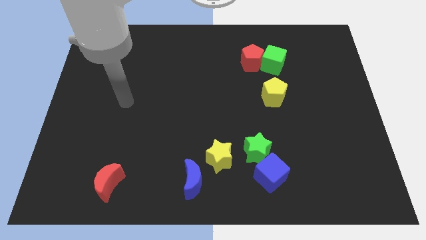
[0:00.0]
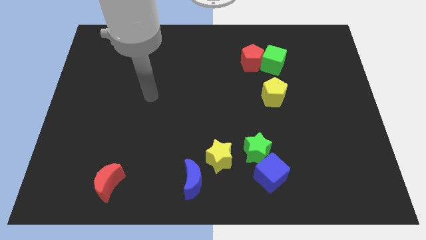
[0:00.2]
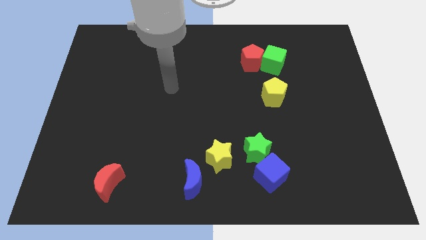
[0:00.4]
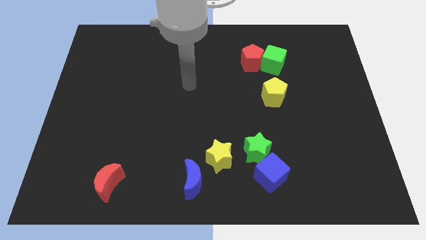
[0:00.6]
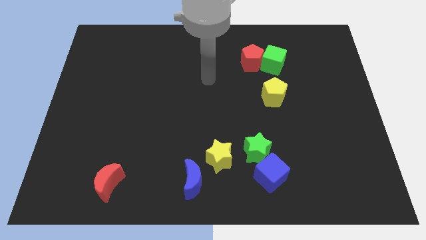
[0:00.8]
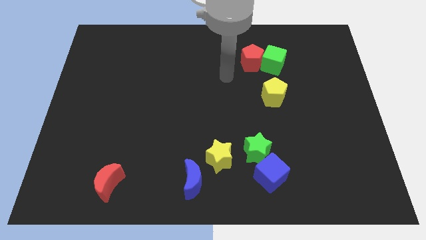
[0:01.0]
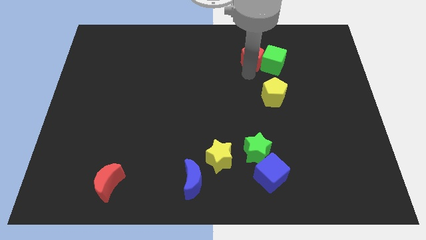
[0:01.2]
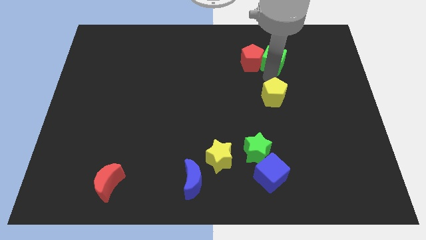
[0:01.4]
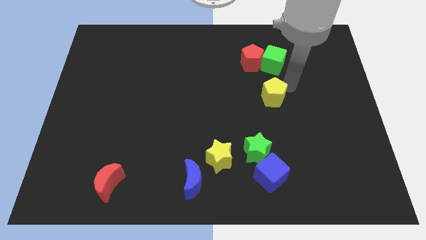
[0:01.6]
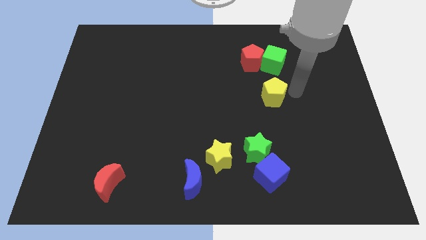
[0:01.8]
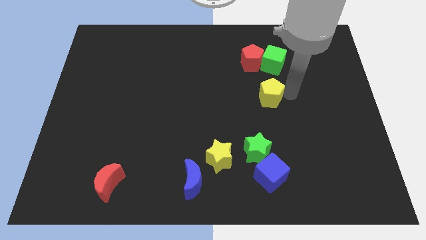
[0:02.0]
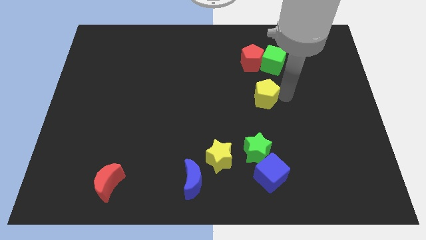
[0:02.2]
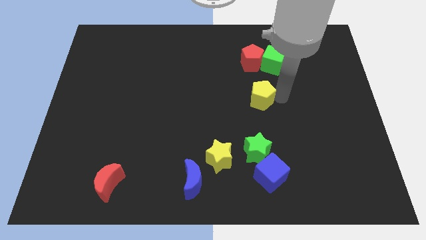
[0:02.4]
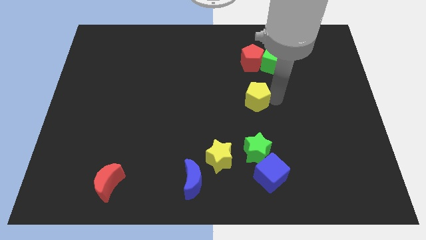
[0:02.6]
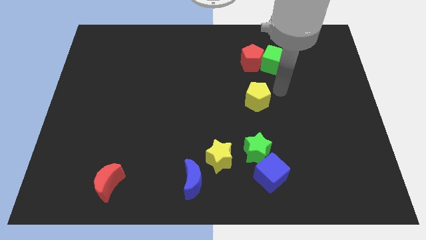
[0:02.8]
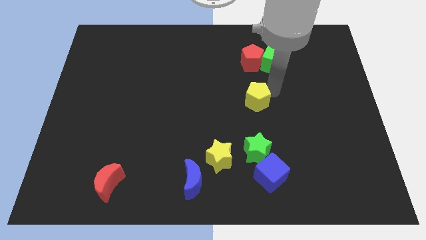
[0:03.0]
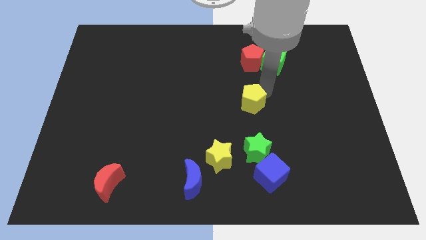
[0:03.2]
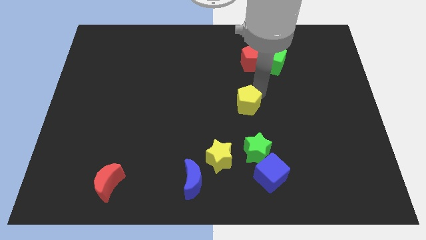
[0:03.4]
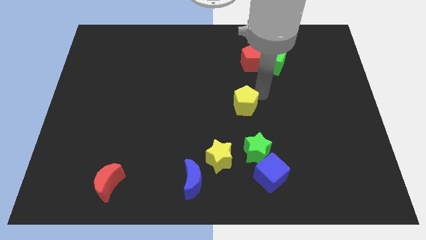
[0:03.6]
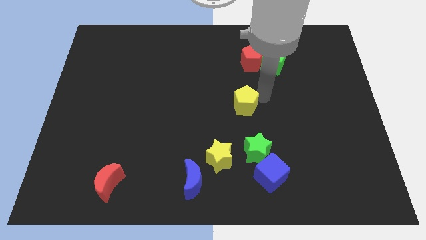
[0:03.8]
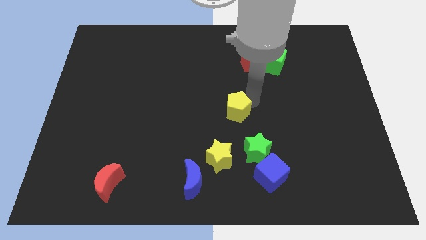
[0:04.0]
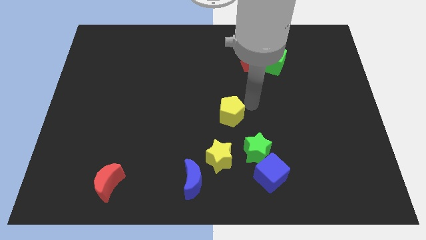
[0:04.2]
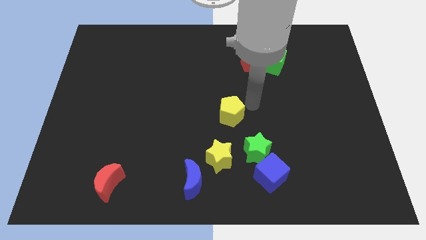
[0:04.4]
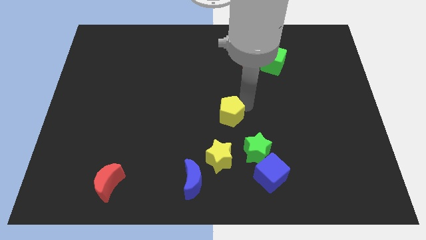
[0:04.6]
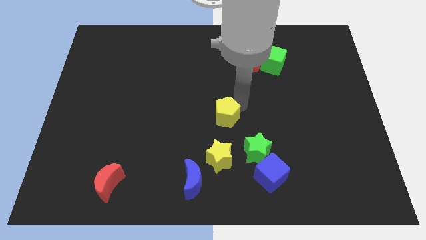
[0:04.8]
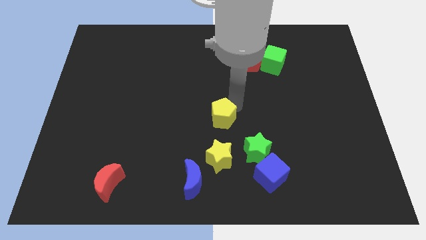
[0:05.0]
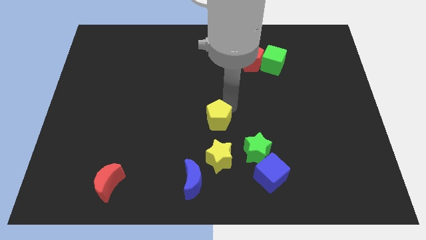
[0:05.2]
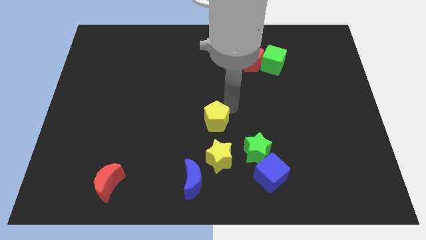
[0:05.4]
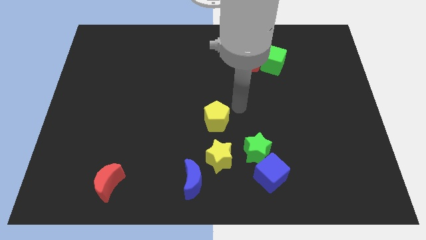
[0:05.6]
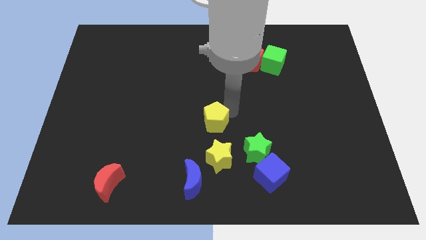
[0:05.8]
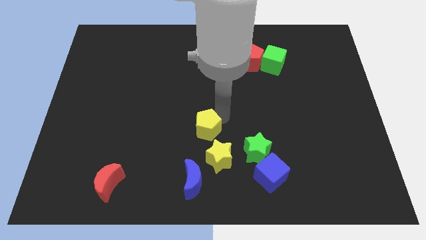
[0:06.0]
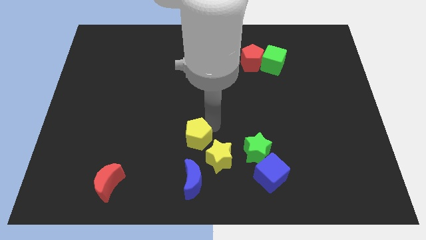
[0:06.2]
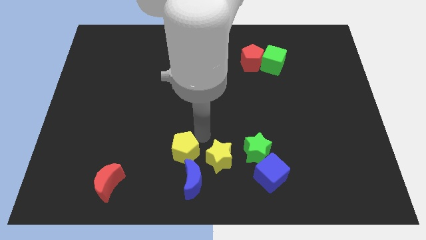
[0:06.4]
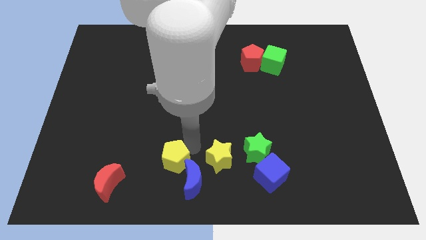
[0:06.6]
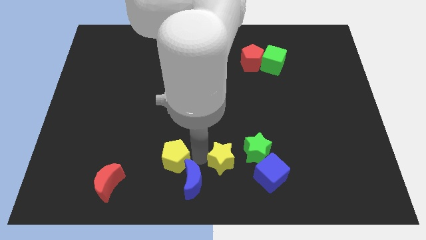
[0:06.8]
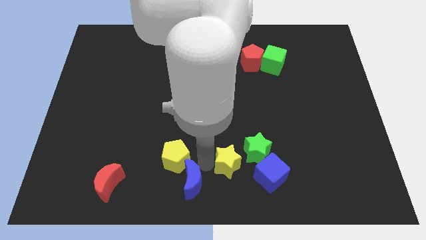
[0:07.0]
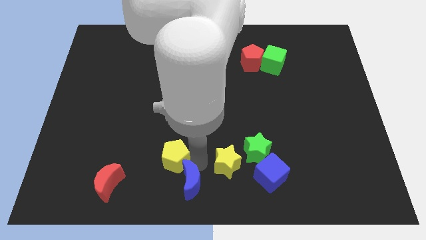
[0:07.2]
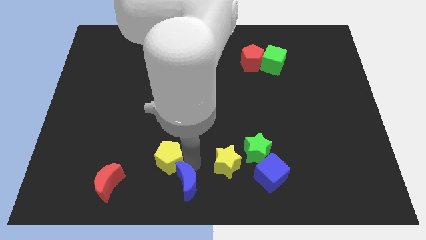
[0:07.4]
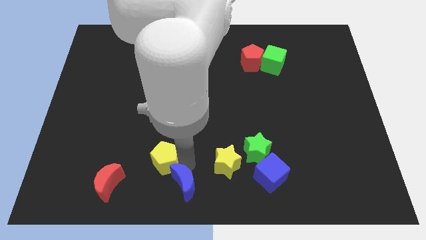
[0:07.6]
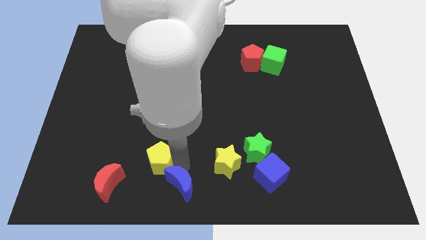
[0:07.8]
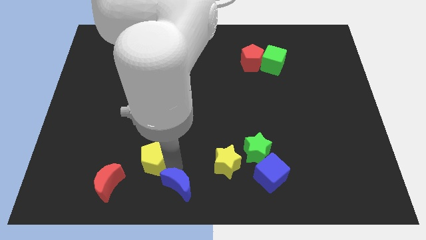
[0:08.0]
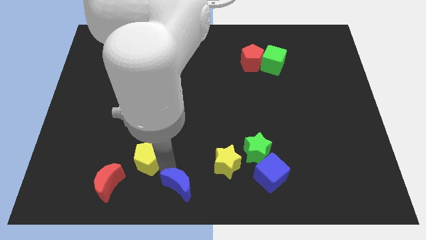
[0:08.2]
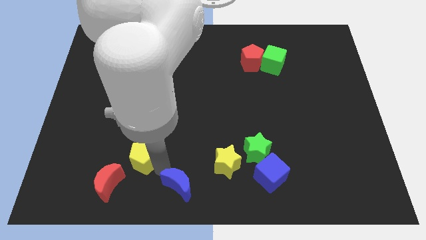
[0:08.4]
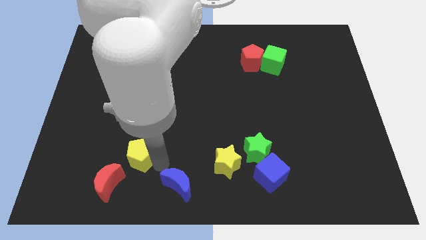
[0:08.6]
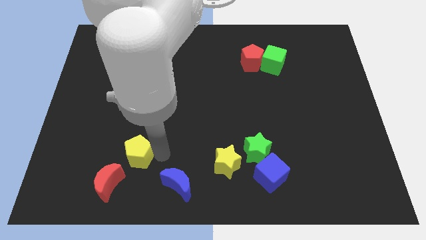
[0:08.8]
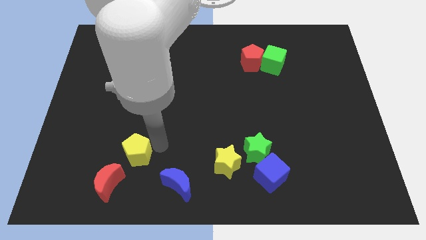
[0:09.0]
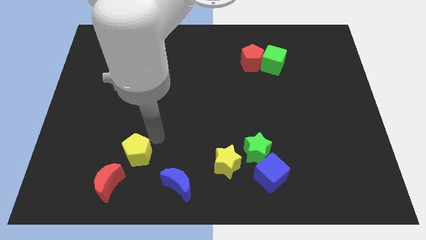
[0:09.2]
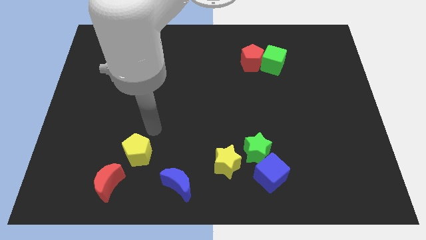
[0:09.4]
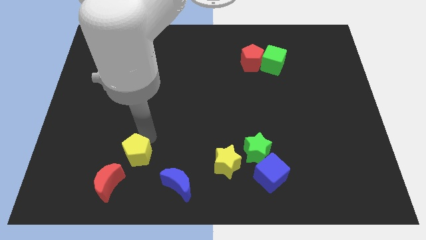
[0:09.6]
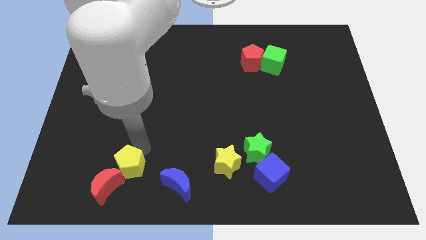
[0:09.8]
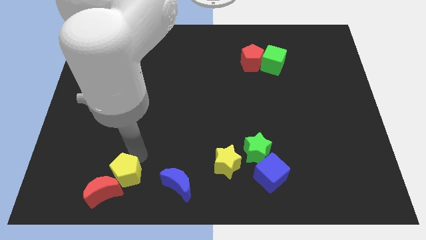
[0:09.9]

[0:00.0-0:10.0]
put the yellow pentagon towards the red moon

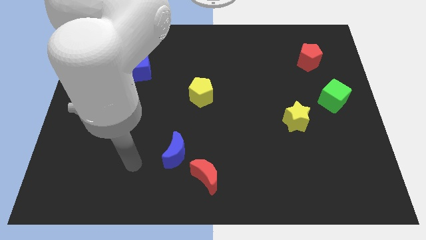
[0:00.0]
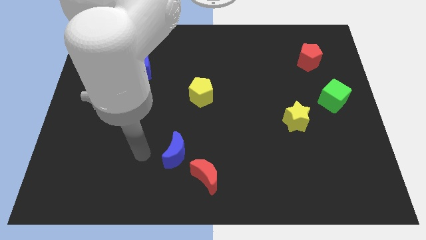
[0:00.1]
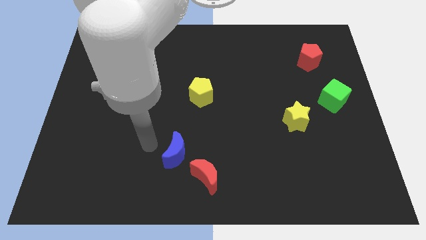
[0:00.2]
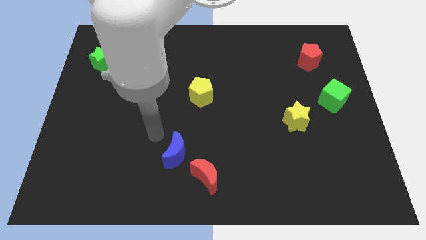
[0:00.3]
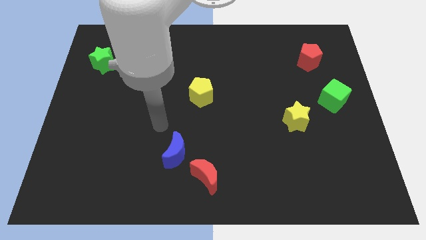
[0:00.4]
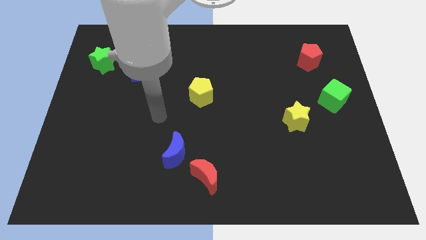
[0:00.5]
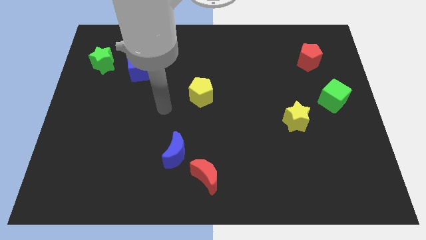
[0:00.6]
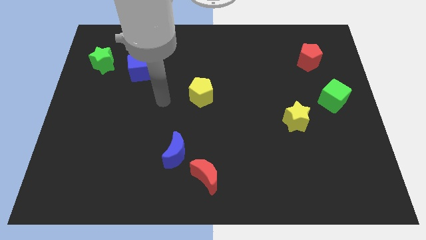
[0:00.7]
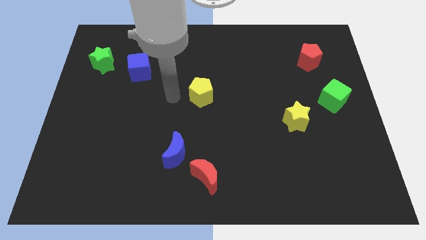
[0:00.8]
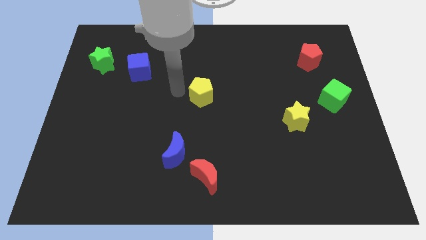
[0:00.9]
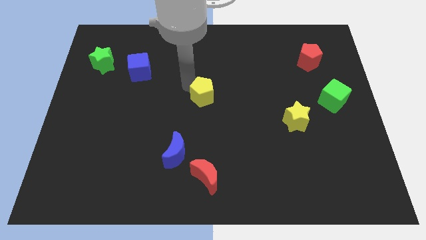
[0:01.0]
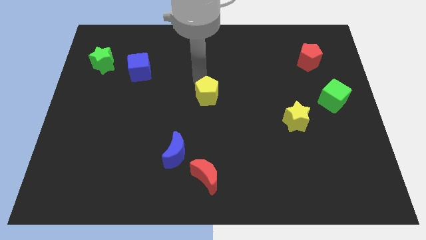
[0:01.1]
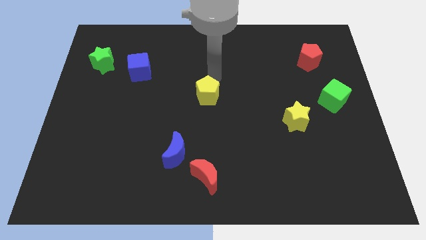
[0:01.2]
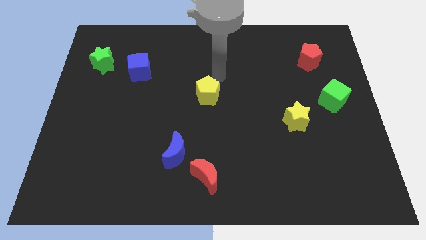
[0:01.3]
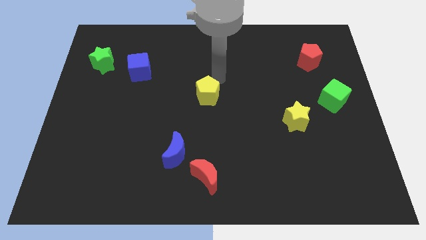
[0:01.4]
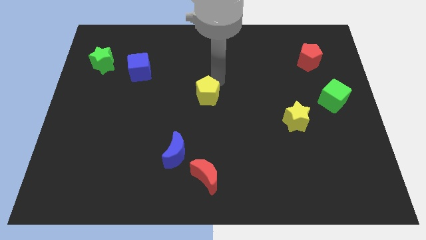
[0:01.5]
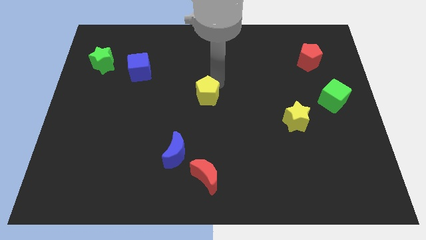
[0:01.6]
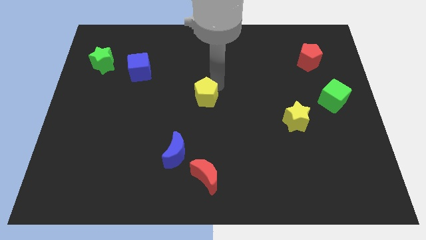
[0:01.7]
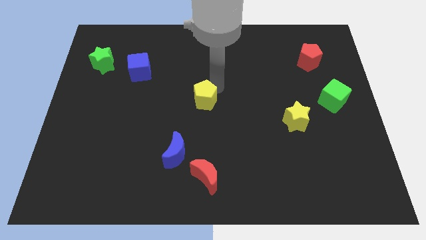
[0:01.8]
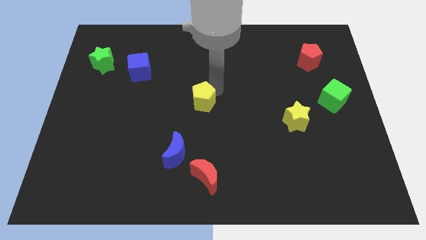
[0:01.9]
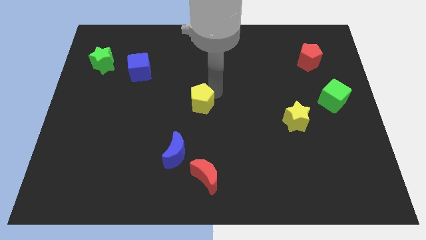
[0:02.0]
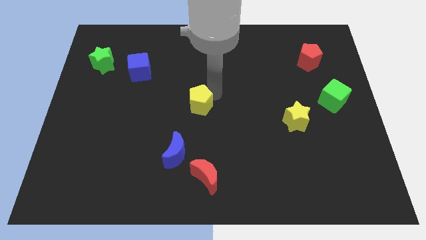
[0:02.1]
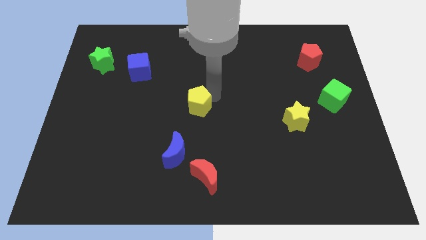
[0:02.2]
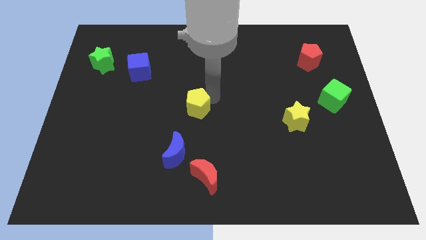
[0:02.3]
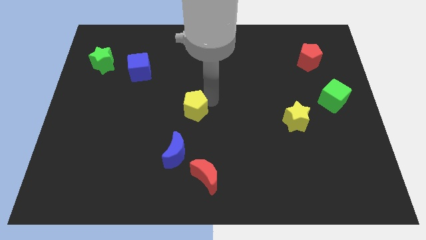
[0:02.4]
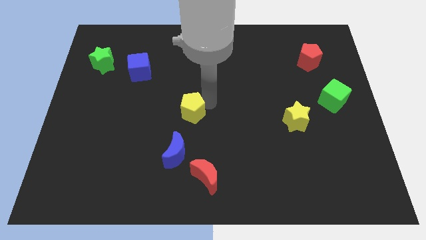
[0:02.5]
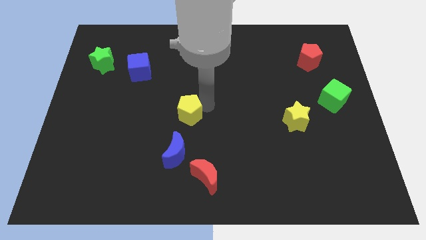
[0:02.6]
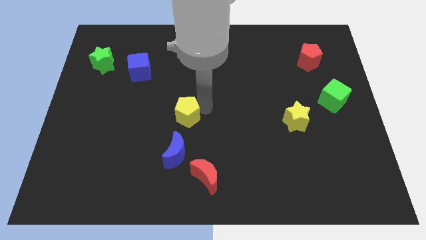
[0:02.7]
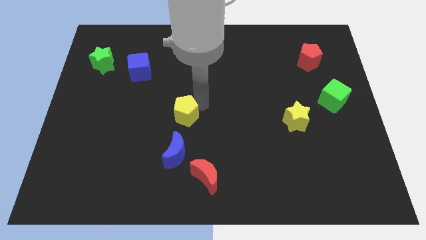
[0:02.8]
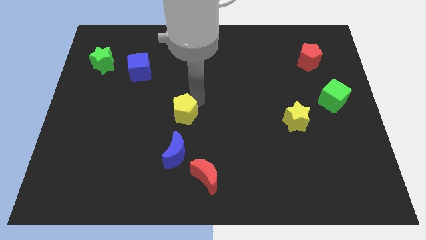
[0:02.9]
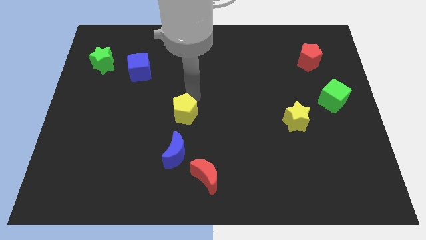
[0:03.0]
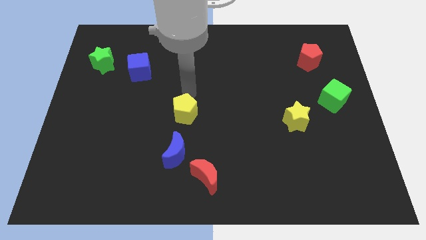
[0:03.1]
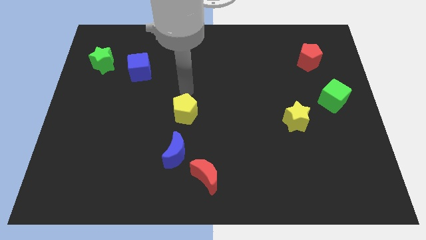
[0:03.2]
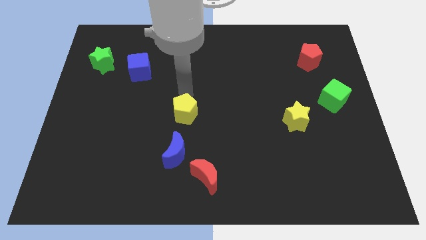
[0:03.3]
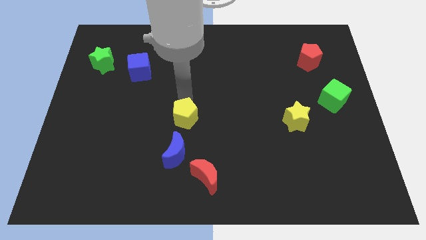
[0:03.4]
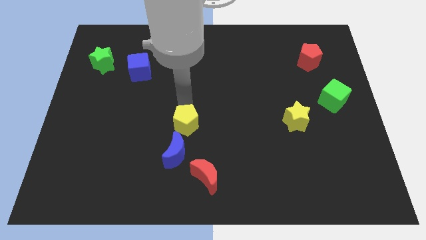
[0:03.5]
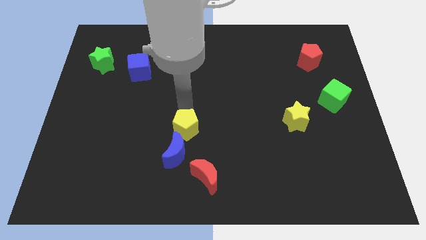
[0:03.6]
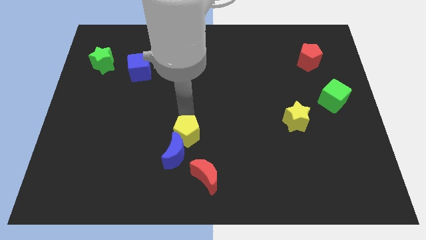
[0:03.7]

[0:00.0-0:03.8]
push the yellow pentagon towards the blue moon
